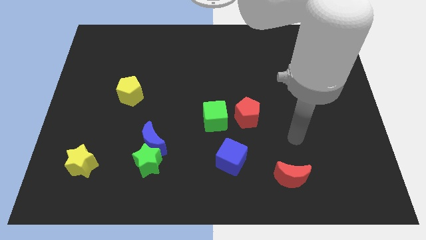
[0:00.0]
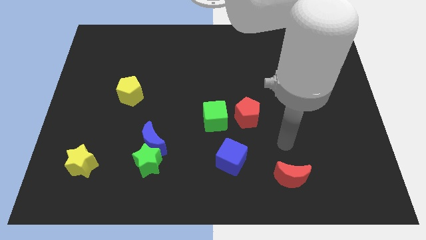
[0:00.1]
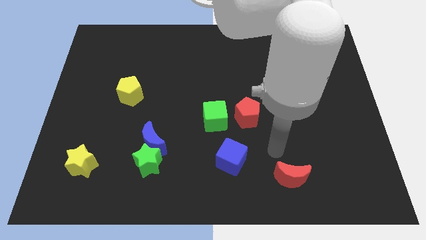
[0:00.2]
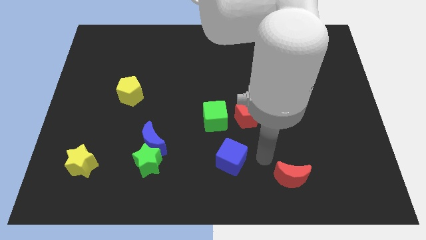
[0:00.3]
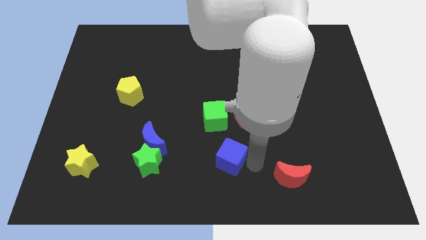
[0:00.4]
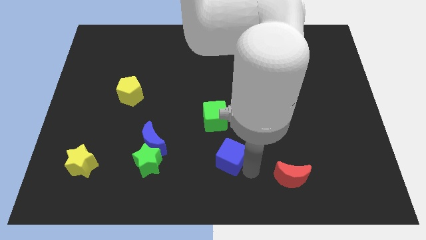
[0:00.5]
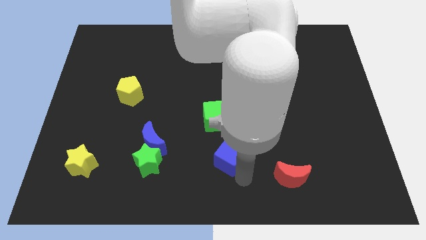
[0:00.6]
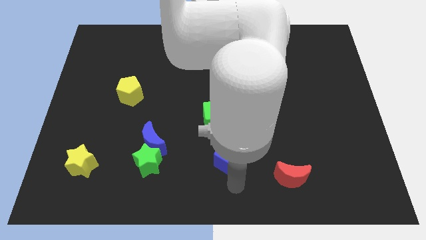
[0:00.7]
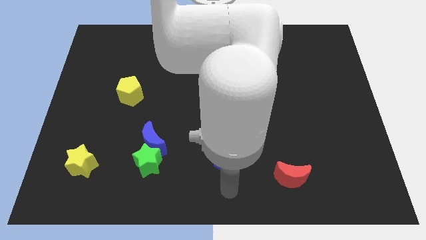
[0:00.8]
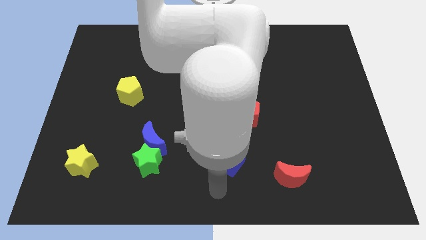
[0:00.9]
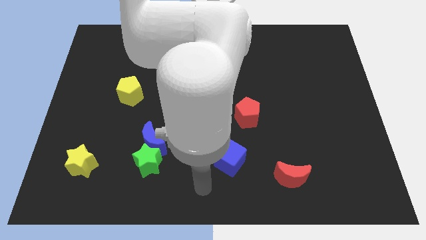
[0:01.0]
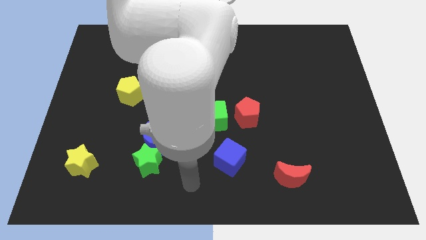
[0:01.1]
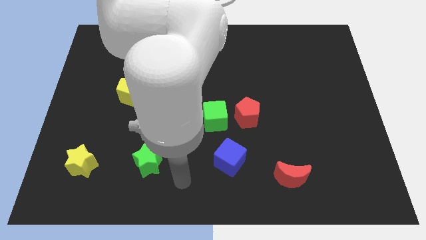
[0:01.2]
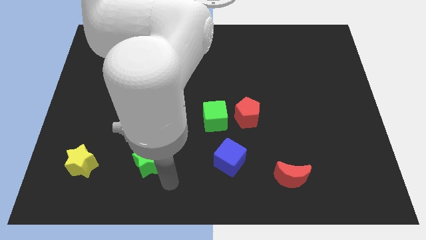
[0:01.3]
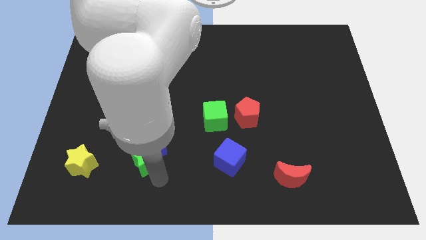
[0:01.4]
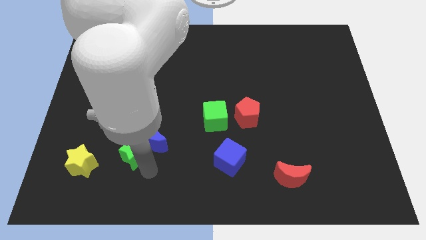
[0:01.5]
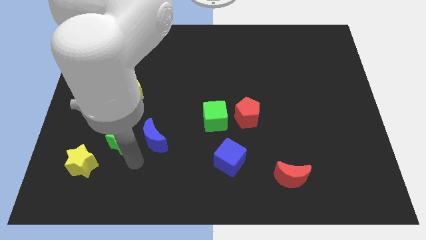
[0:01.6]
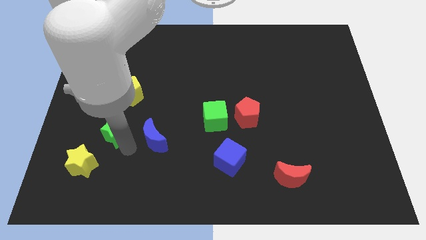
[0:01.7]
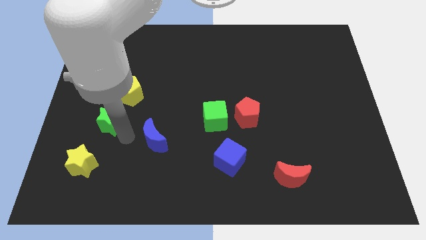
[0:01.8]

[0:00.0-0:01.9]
move the blue moon away from the green star

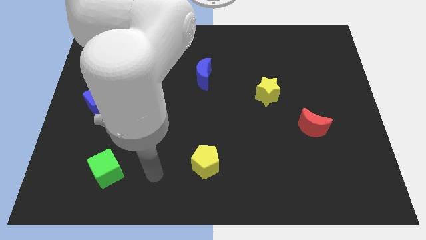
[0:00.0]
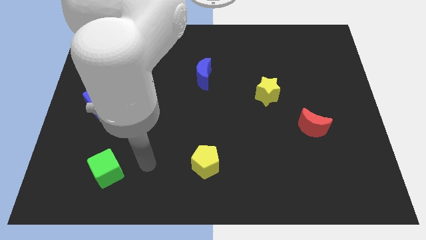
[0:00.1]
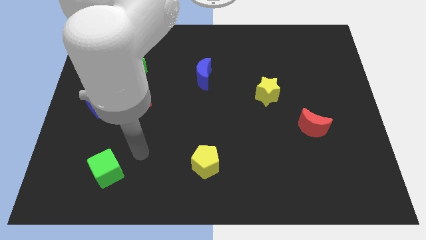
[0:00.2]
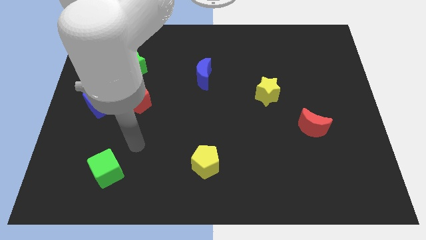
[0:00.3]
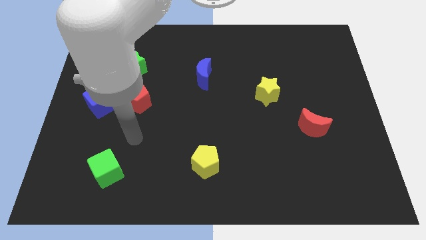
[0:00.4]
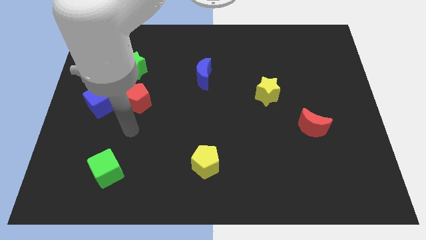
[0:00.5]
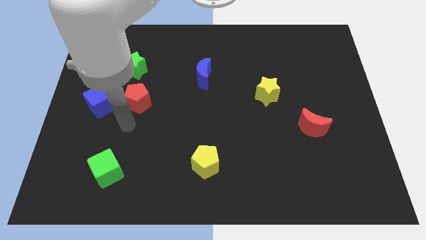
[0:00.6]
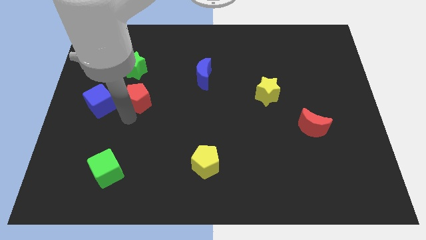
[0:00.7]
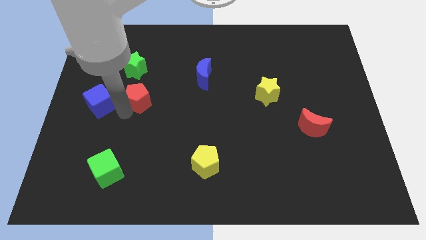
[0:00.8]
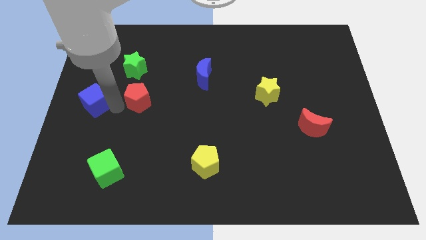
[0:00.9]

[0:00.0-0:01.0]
move the red pentagon away from the blue cube

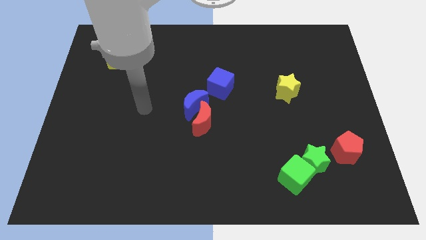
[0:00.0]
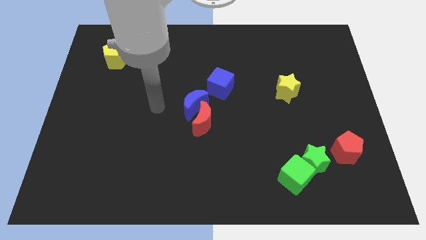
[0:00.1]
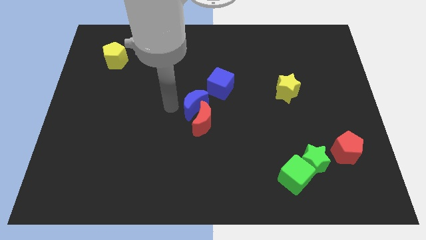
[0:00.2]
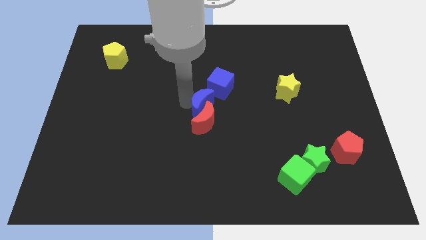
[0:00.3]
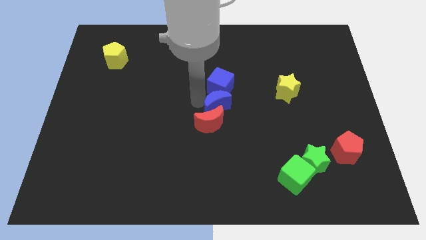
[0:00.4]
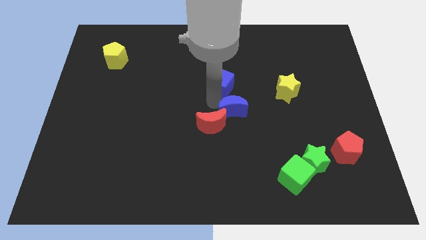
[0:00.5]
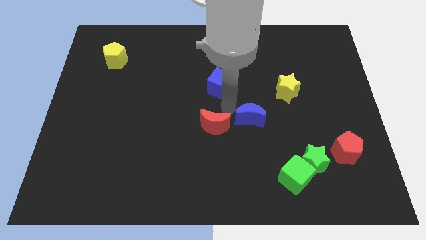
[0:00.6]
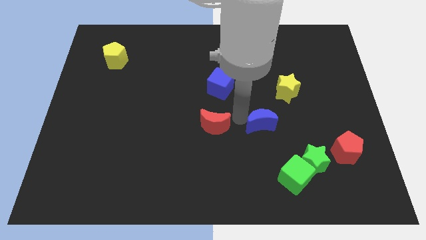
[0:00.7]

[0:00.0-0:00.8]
separate the red moon from the blue moon

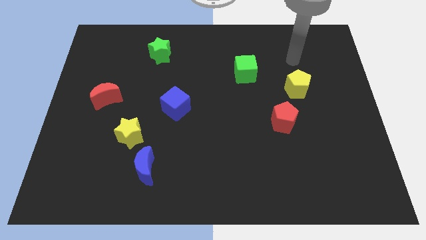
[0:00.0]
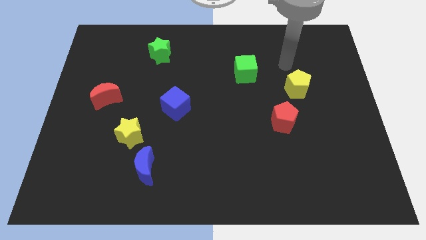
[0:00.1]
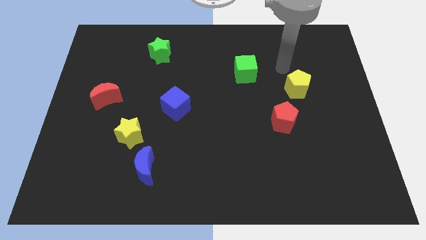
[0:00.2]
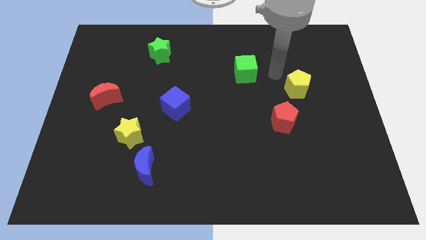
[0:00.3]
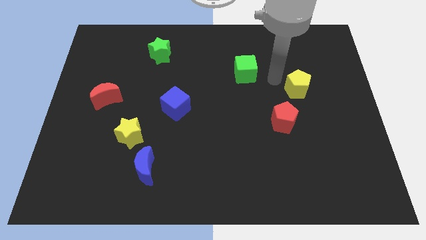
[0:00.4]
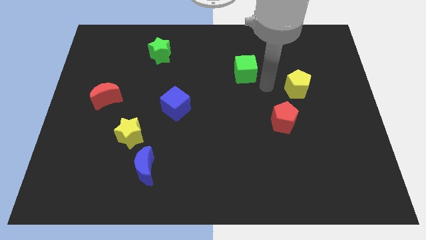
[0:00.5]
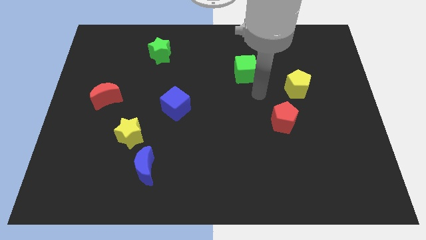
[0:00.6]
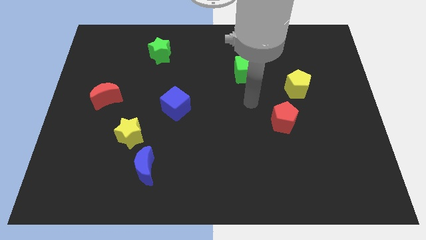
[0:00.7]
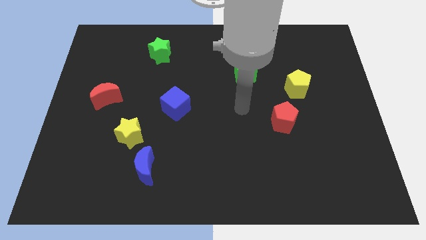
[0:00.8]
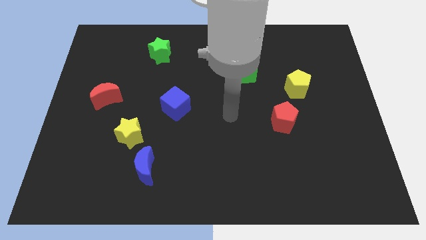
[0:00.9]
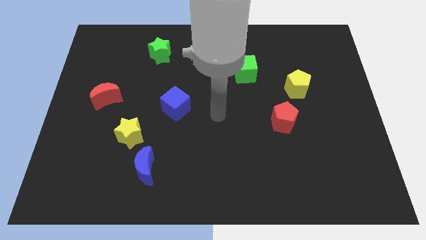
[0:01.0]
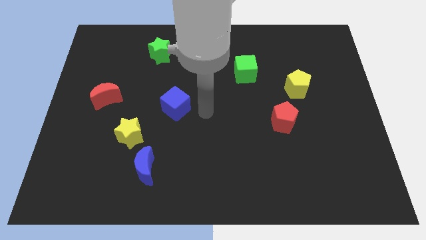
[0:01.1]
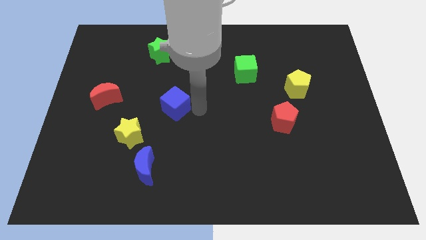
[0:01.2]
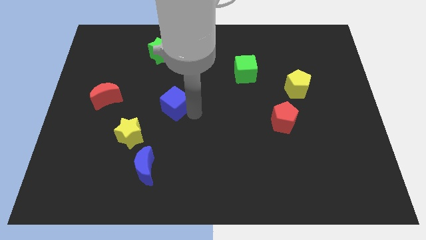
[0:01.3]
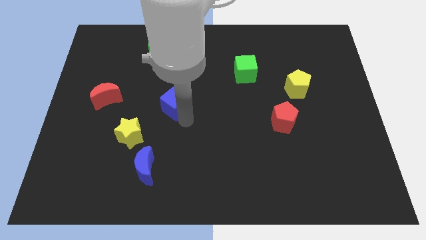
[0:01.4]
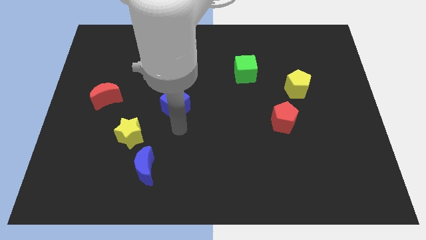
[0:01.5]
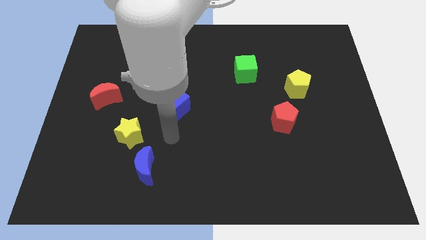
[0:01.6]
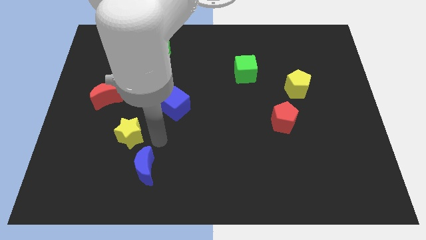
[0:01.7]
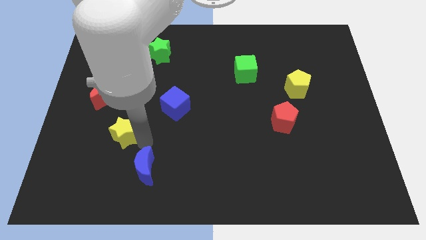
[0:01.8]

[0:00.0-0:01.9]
separate the blue moon from the yellow star

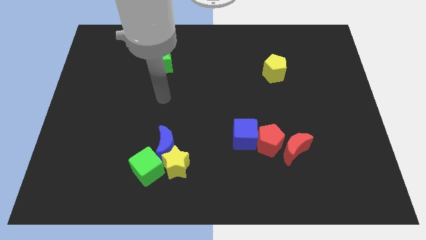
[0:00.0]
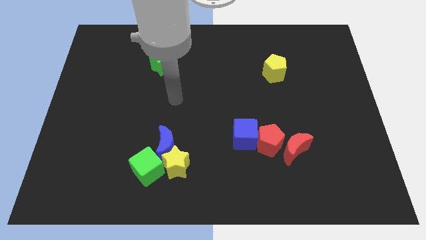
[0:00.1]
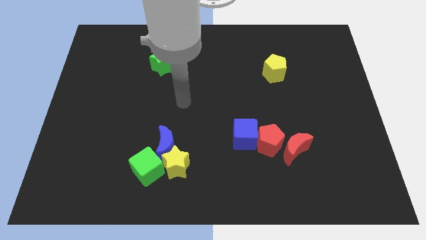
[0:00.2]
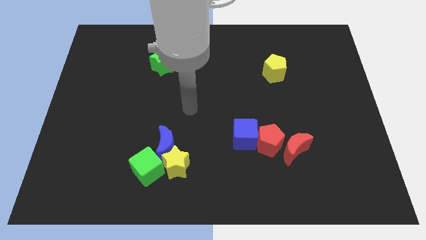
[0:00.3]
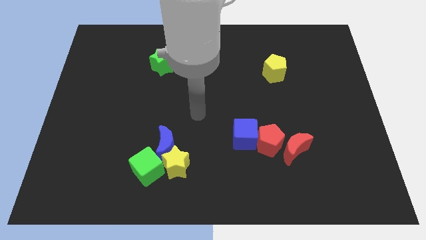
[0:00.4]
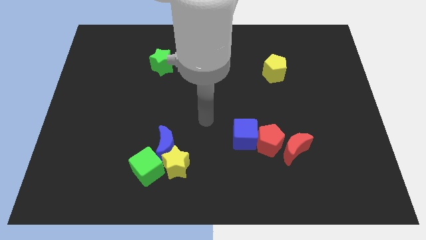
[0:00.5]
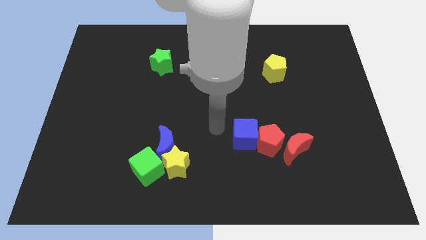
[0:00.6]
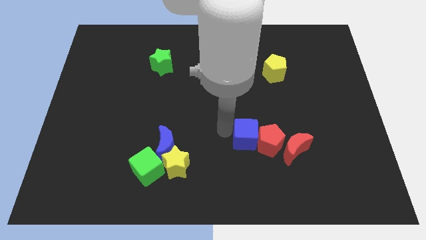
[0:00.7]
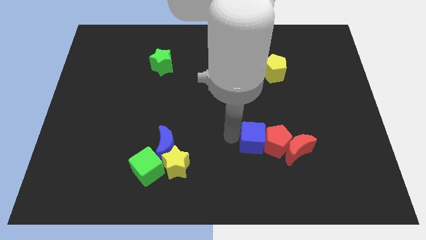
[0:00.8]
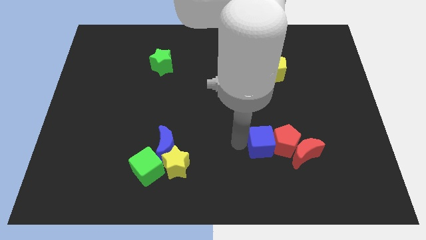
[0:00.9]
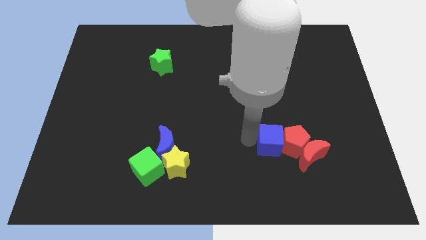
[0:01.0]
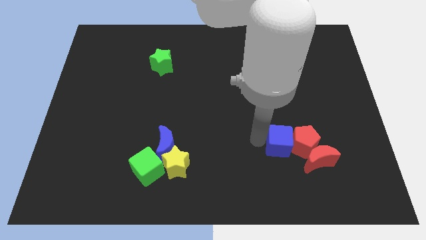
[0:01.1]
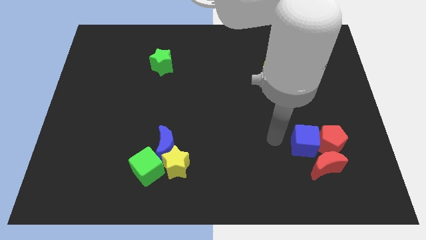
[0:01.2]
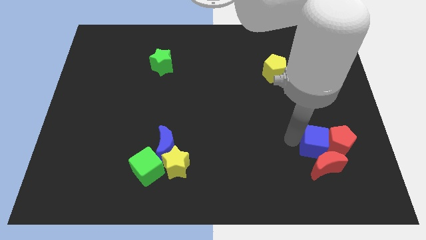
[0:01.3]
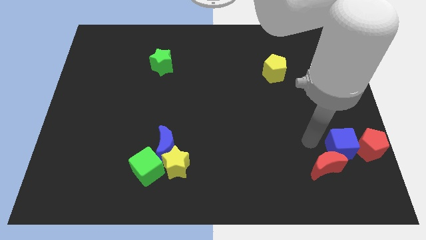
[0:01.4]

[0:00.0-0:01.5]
separate the red moon from the red pentagon

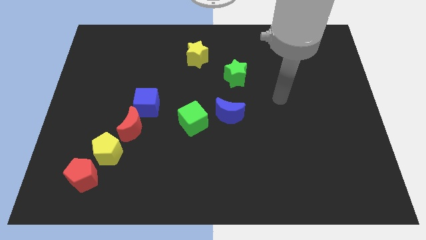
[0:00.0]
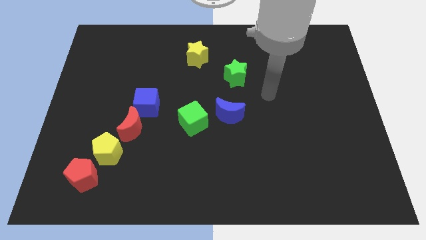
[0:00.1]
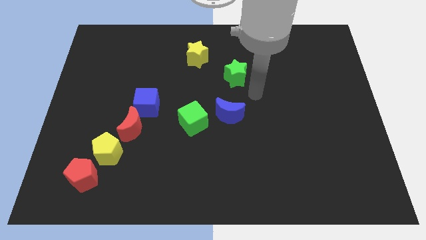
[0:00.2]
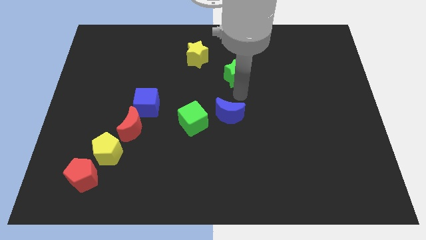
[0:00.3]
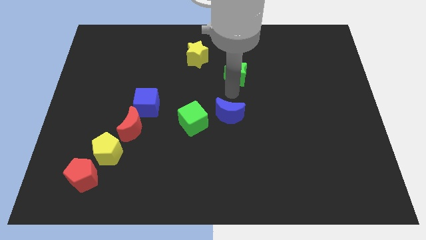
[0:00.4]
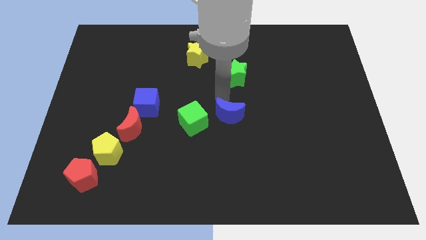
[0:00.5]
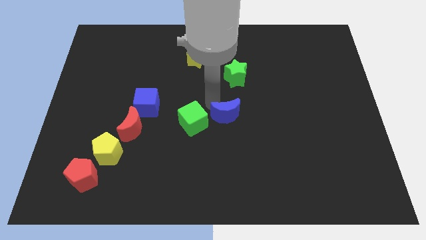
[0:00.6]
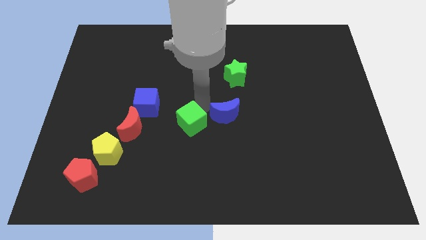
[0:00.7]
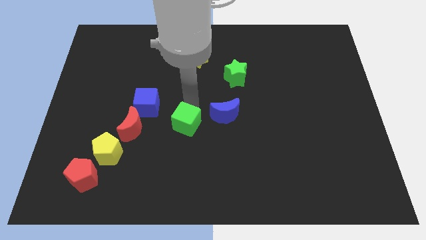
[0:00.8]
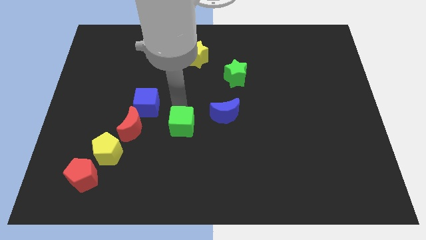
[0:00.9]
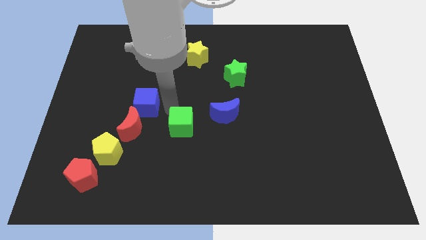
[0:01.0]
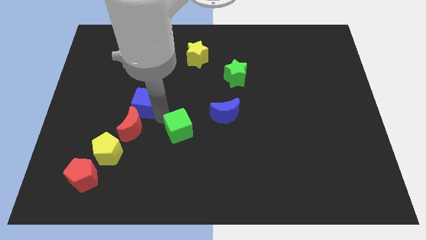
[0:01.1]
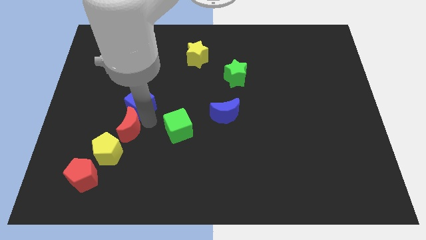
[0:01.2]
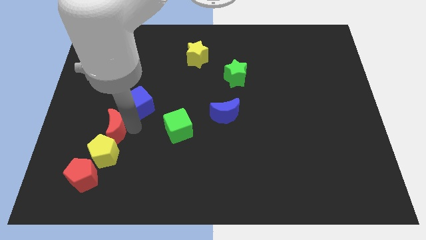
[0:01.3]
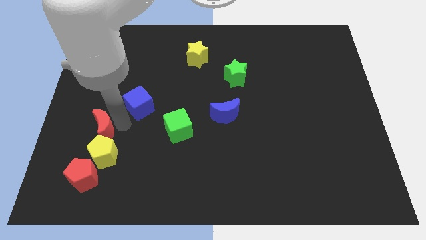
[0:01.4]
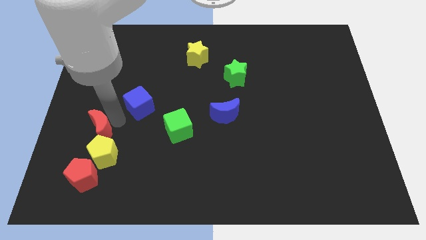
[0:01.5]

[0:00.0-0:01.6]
separate the blue cube from the red moon

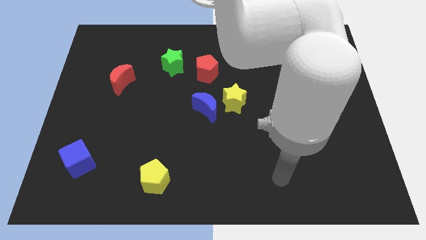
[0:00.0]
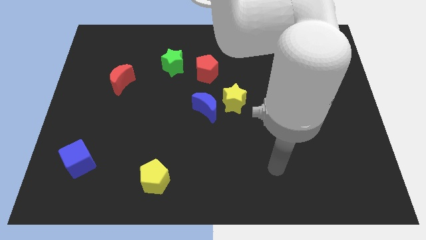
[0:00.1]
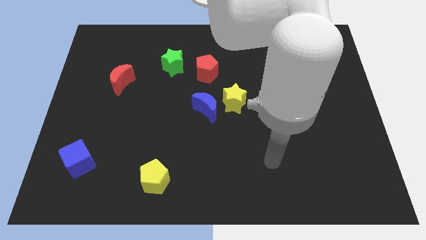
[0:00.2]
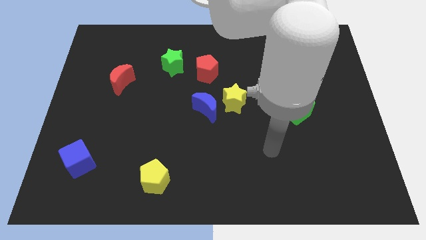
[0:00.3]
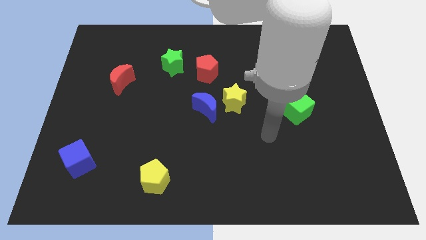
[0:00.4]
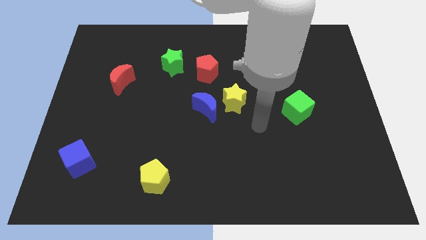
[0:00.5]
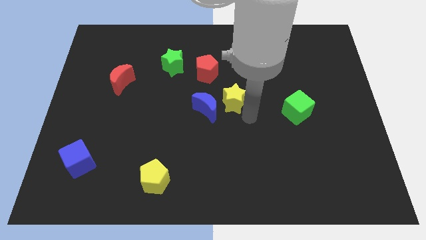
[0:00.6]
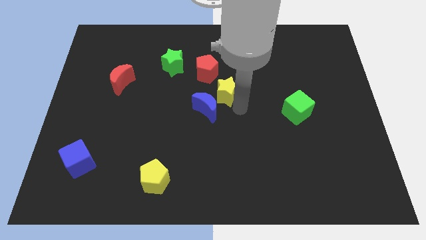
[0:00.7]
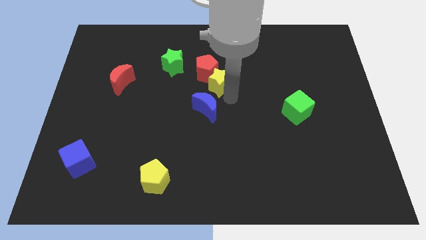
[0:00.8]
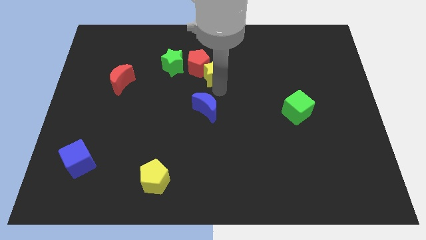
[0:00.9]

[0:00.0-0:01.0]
pull the blue moon apart from the yellow star
